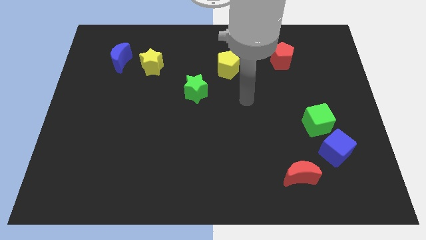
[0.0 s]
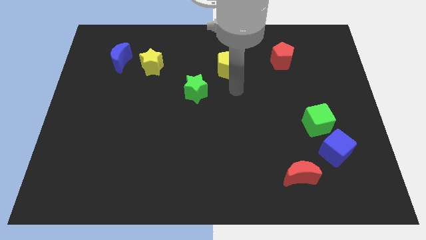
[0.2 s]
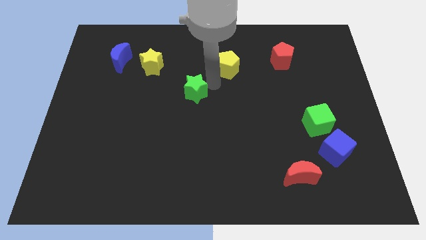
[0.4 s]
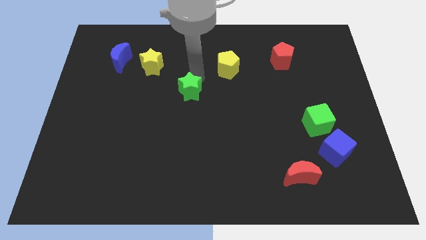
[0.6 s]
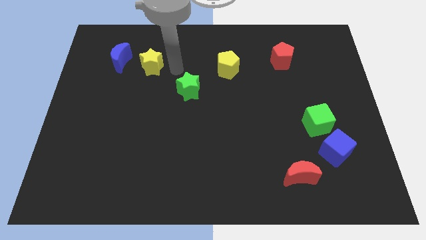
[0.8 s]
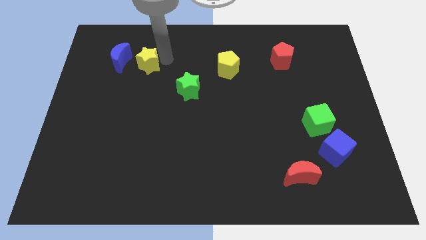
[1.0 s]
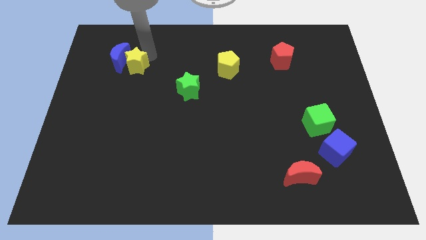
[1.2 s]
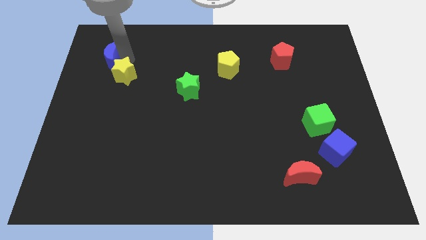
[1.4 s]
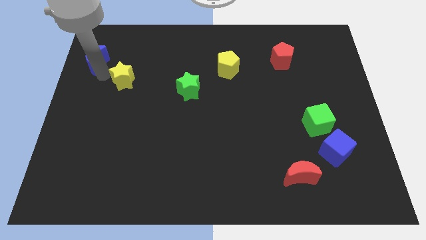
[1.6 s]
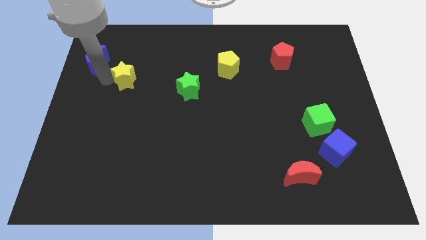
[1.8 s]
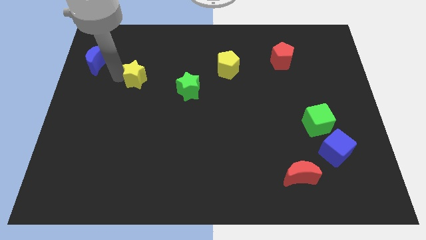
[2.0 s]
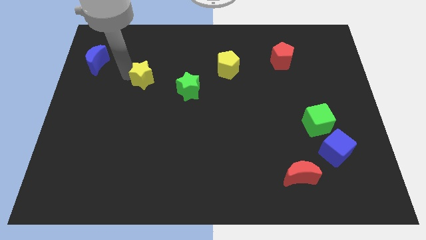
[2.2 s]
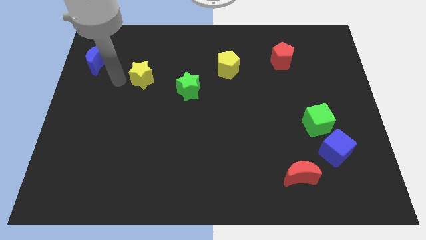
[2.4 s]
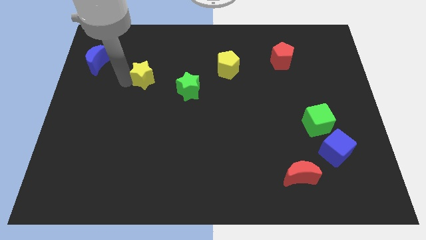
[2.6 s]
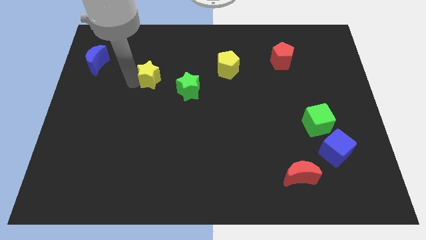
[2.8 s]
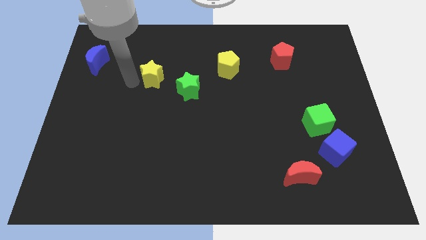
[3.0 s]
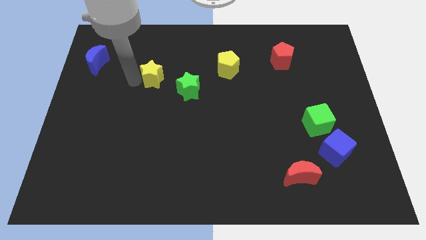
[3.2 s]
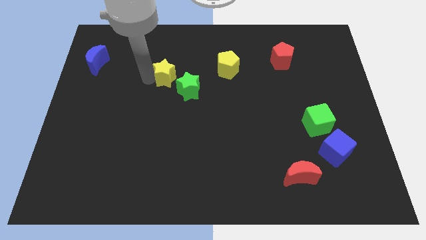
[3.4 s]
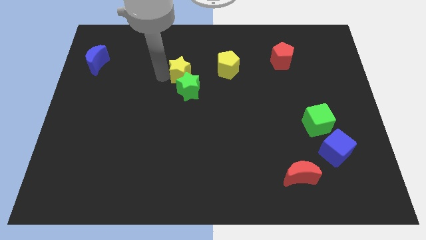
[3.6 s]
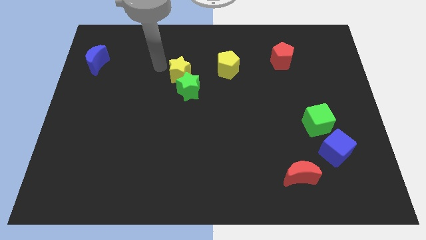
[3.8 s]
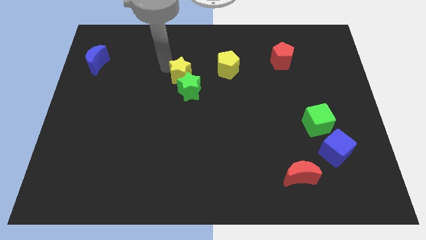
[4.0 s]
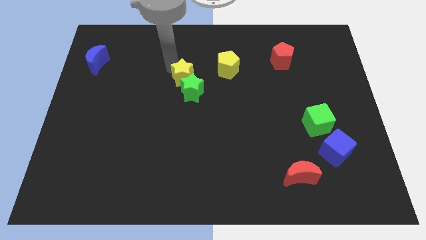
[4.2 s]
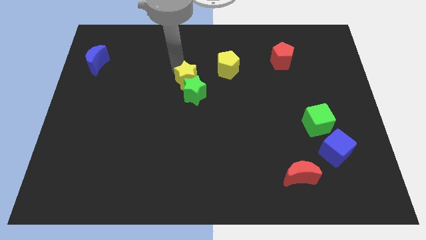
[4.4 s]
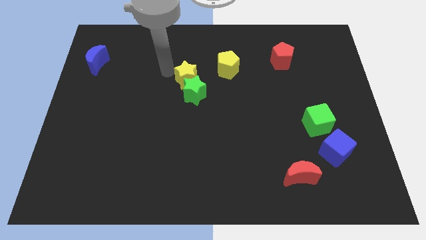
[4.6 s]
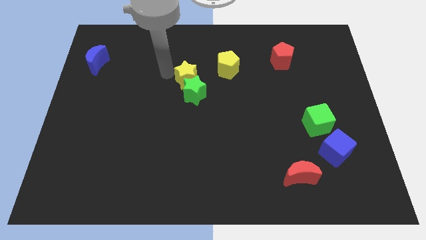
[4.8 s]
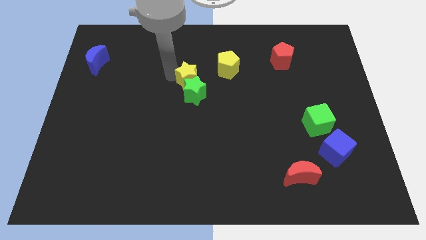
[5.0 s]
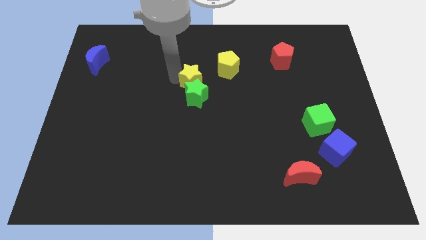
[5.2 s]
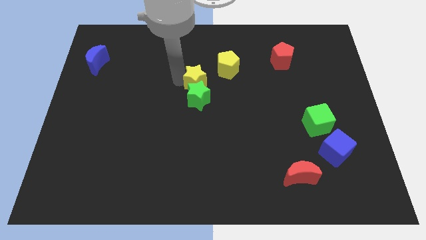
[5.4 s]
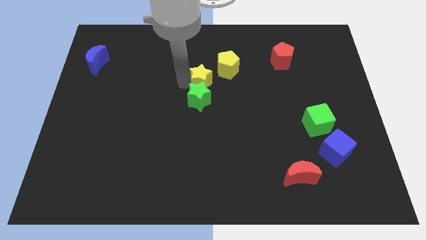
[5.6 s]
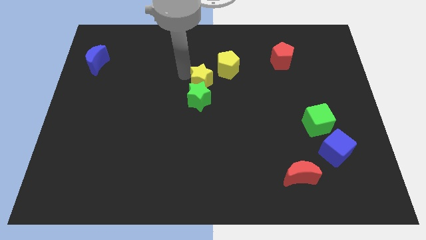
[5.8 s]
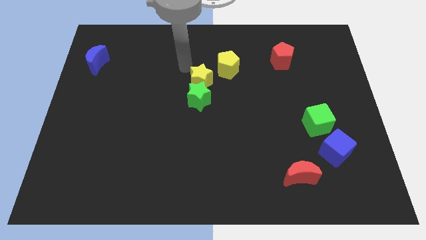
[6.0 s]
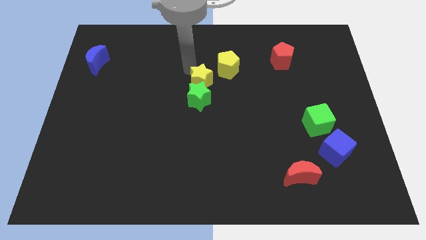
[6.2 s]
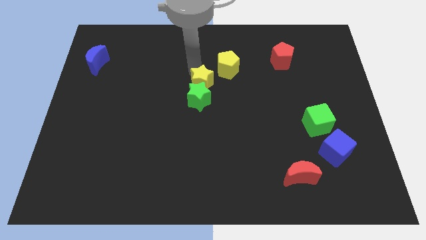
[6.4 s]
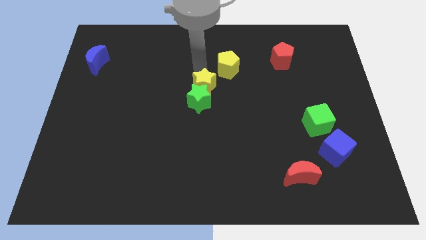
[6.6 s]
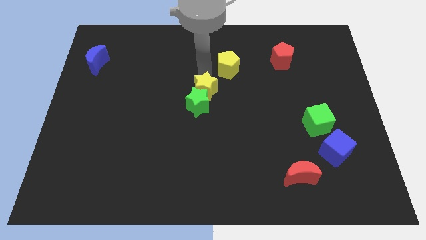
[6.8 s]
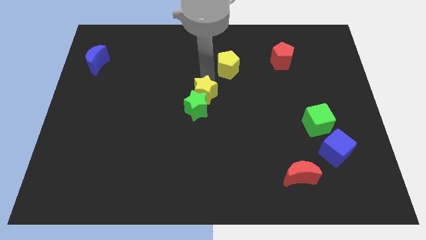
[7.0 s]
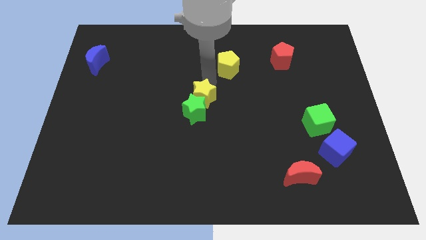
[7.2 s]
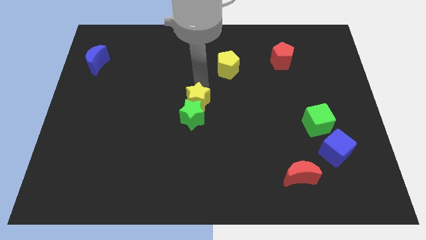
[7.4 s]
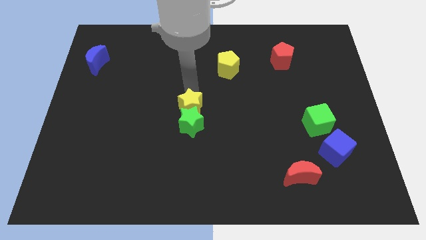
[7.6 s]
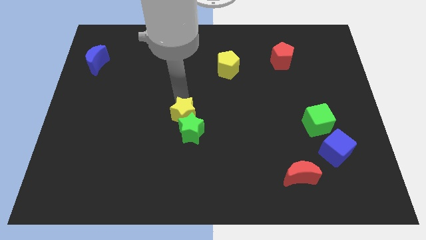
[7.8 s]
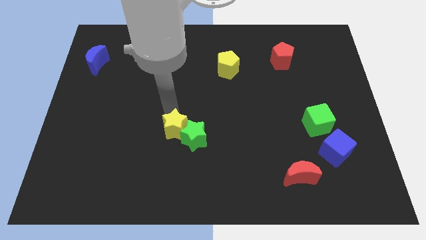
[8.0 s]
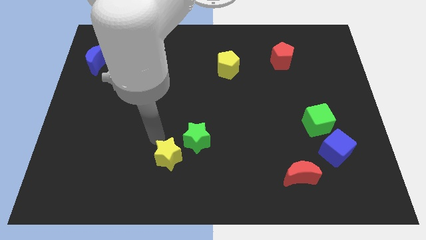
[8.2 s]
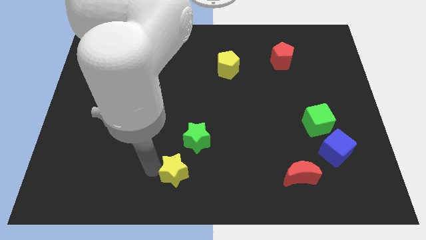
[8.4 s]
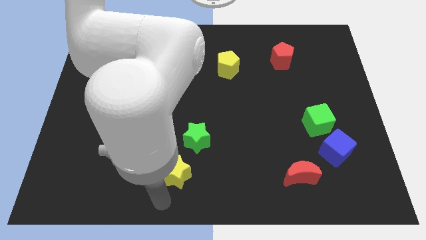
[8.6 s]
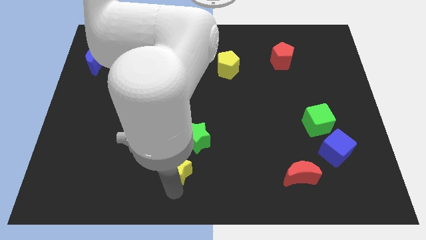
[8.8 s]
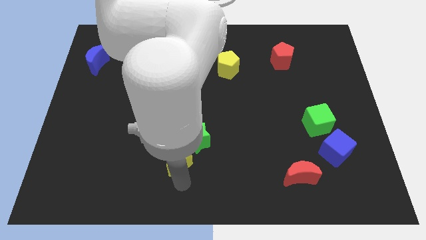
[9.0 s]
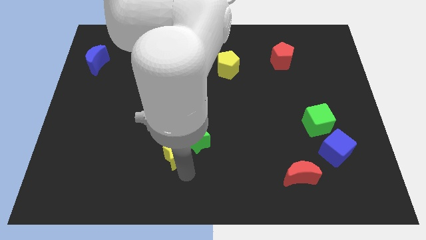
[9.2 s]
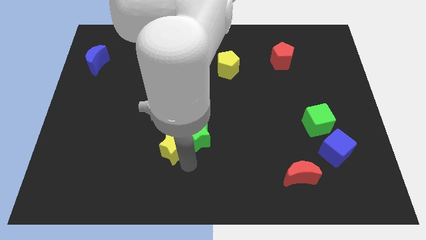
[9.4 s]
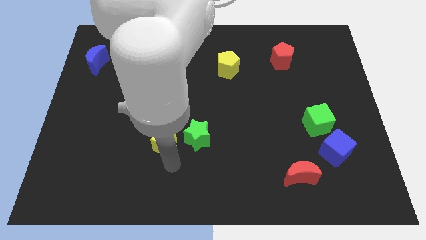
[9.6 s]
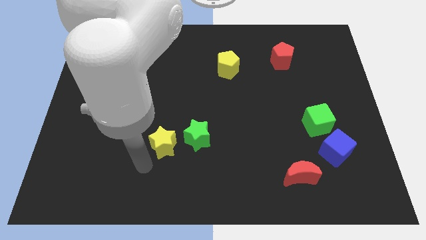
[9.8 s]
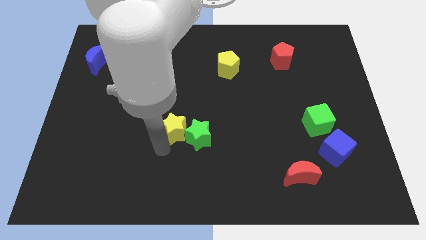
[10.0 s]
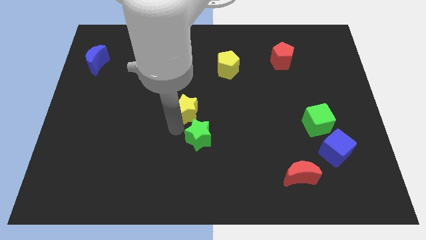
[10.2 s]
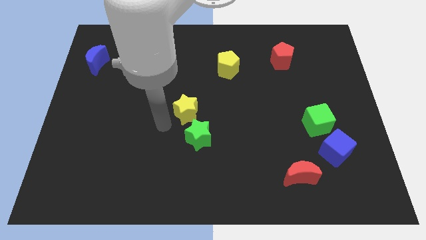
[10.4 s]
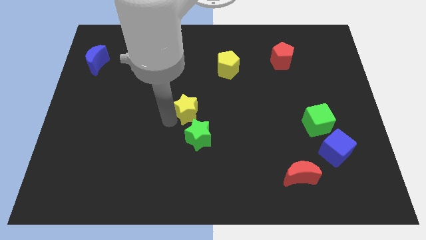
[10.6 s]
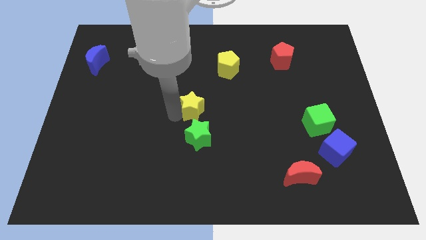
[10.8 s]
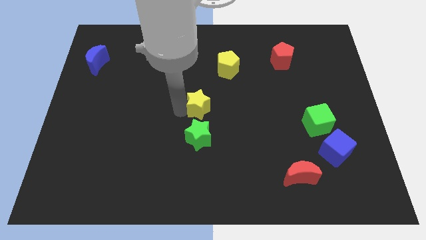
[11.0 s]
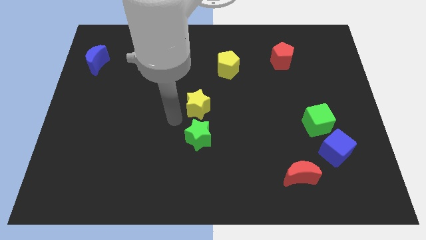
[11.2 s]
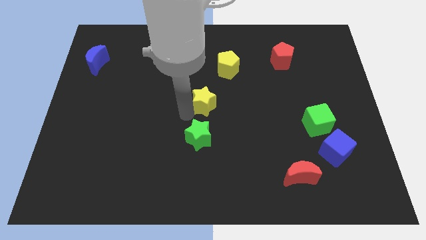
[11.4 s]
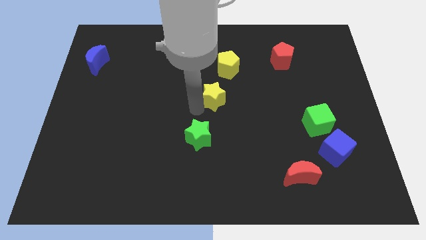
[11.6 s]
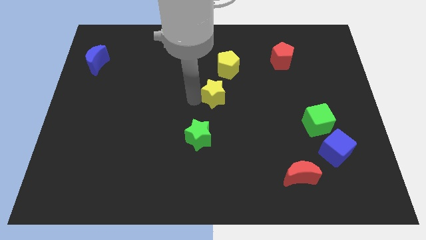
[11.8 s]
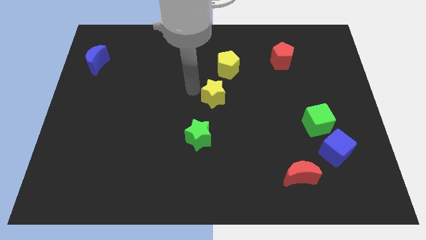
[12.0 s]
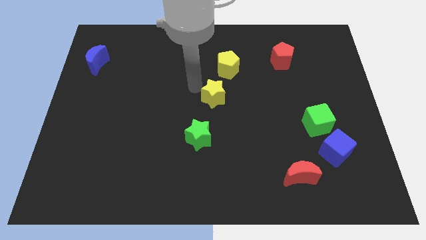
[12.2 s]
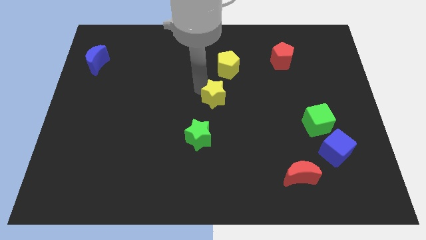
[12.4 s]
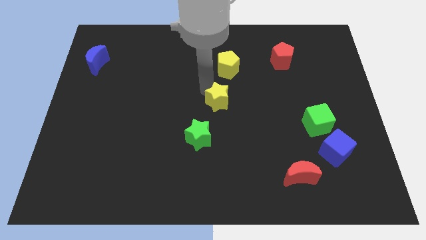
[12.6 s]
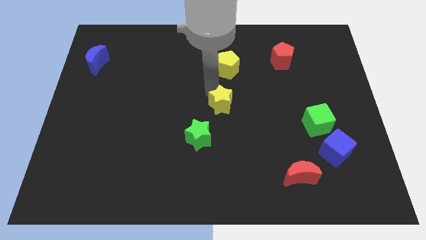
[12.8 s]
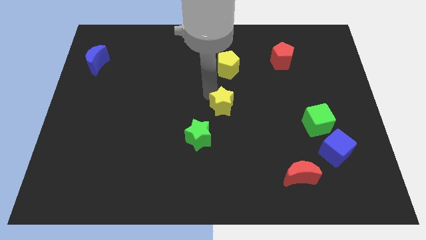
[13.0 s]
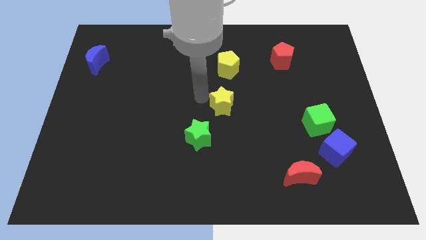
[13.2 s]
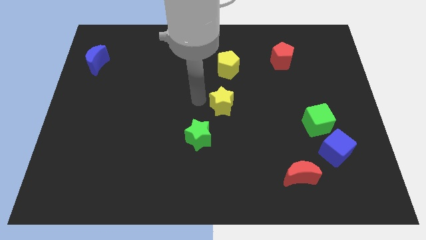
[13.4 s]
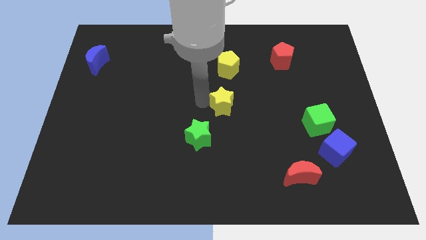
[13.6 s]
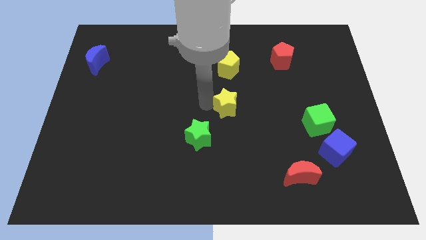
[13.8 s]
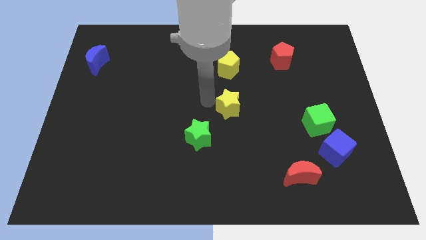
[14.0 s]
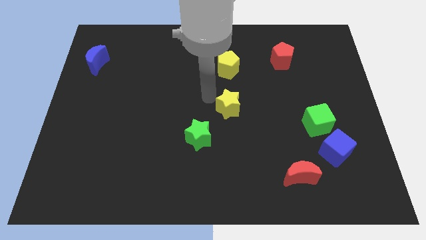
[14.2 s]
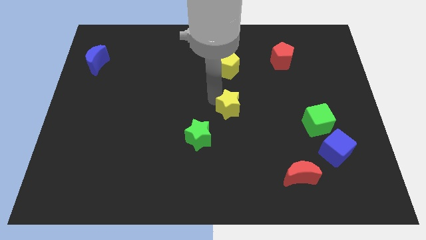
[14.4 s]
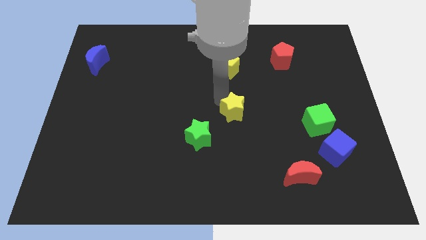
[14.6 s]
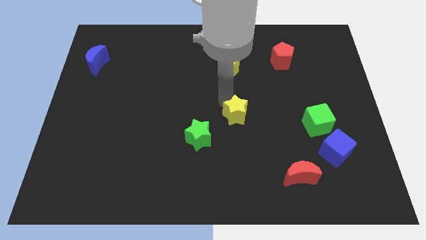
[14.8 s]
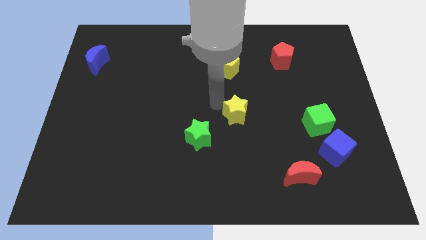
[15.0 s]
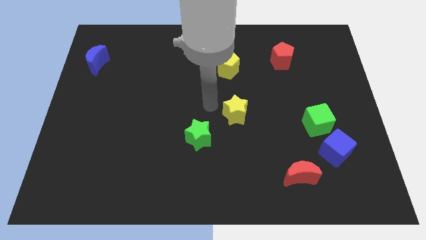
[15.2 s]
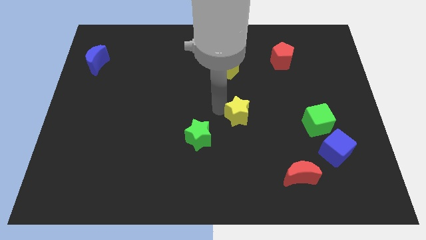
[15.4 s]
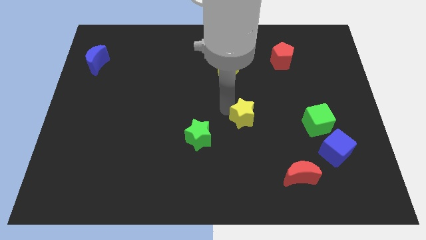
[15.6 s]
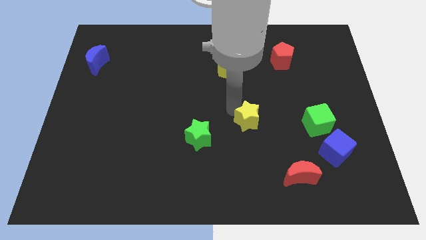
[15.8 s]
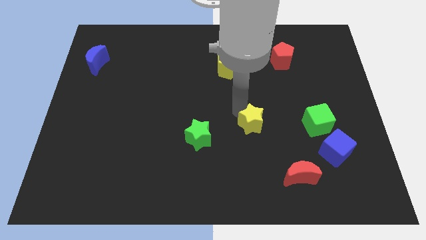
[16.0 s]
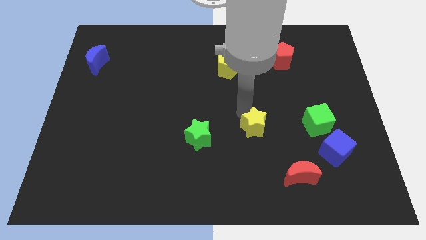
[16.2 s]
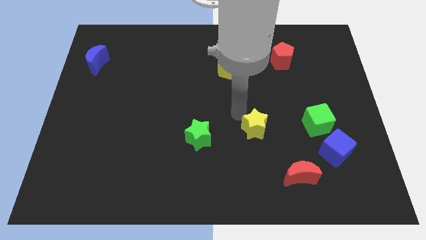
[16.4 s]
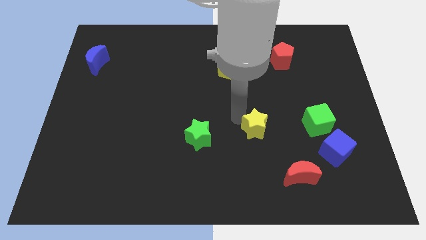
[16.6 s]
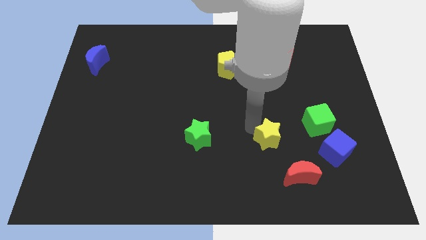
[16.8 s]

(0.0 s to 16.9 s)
move the yellow star left of the blue cube
